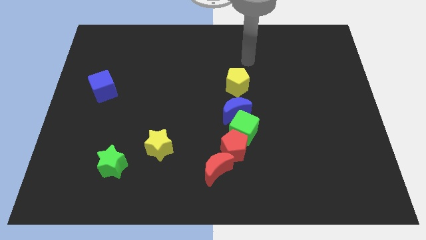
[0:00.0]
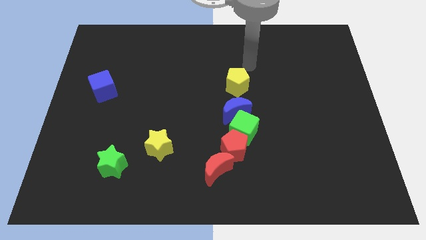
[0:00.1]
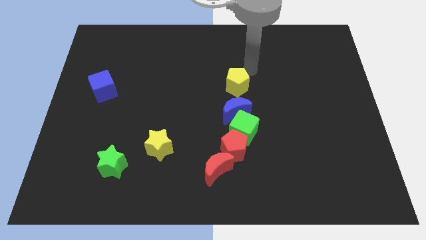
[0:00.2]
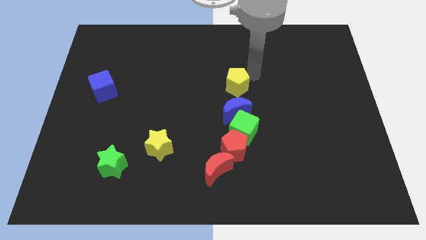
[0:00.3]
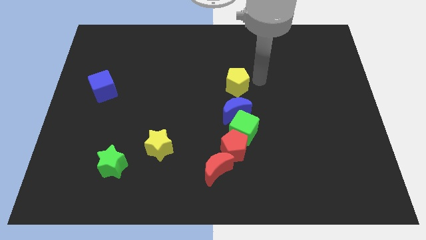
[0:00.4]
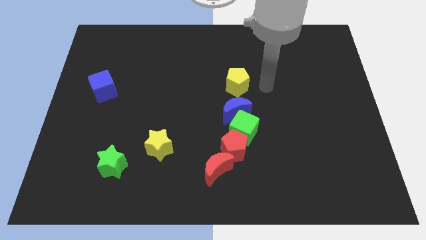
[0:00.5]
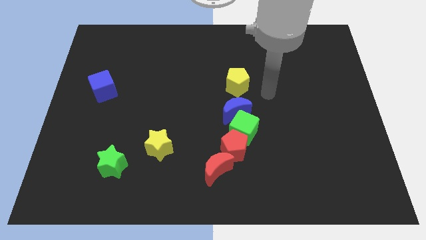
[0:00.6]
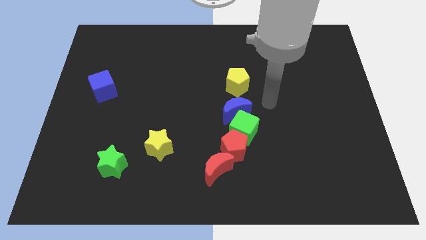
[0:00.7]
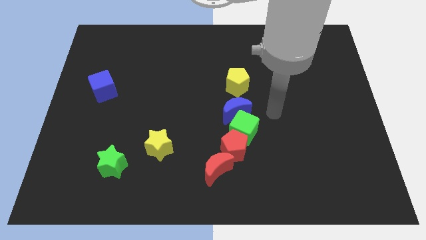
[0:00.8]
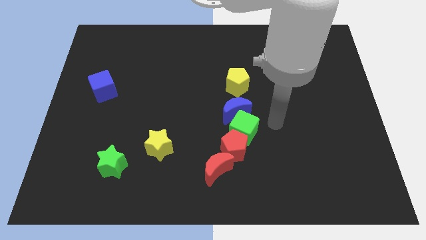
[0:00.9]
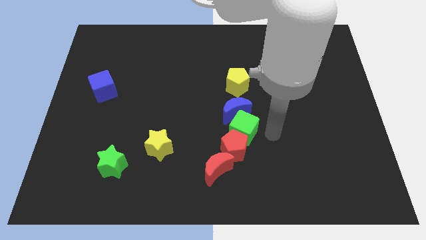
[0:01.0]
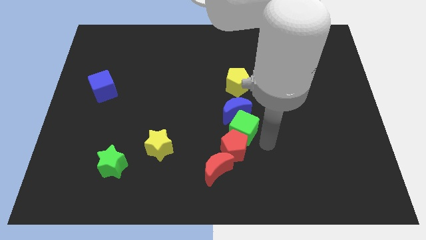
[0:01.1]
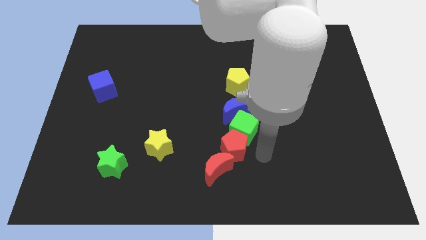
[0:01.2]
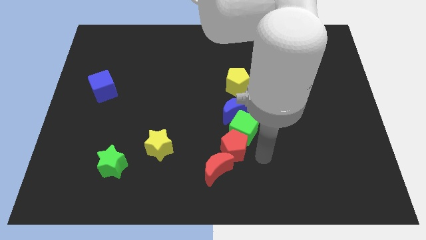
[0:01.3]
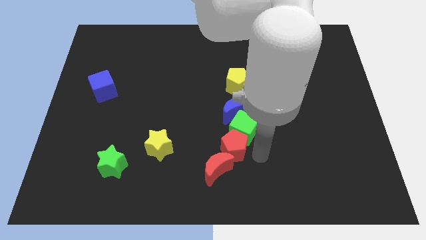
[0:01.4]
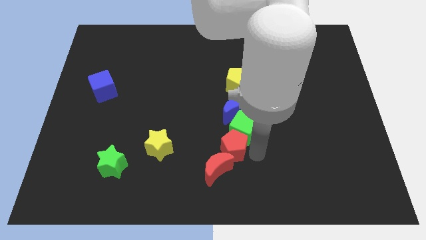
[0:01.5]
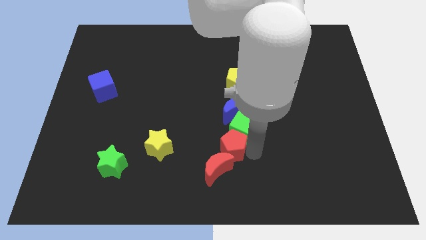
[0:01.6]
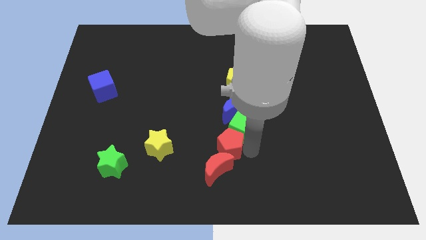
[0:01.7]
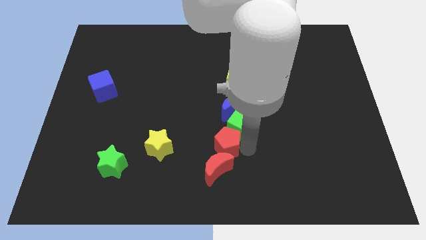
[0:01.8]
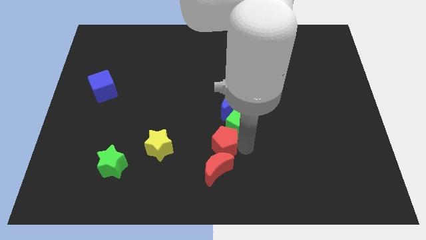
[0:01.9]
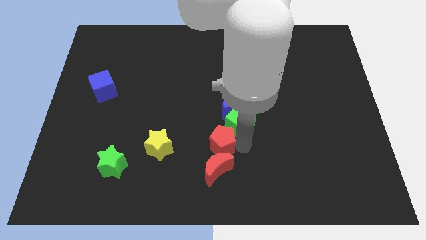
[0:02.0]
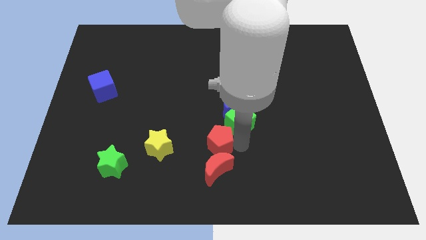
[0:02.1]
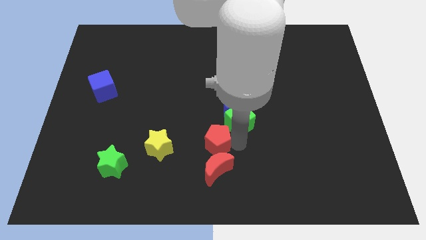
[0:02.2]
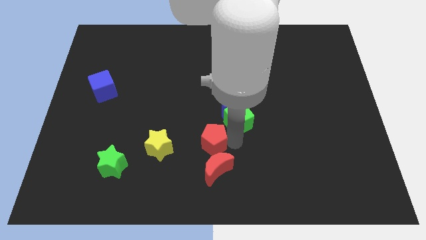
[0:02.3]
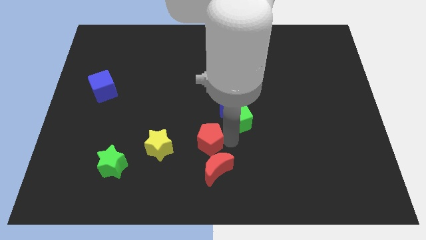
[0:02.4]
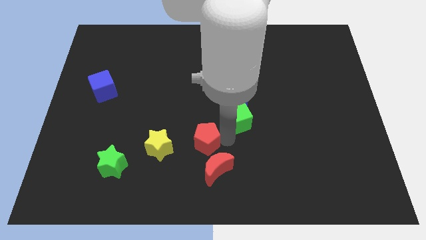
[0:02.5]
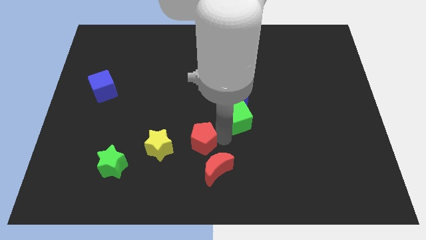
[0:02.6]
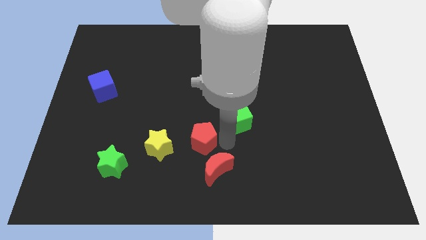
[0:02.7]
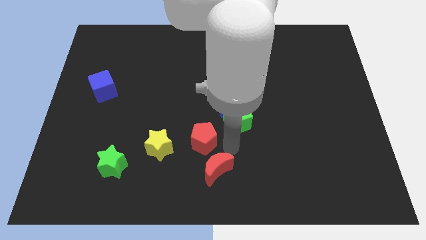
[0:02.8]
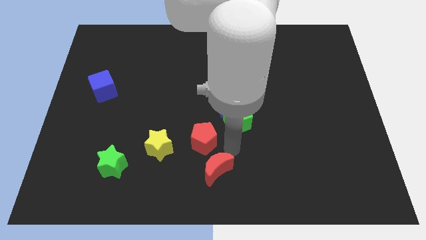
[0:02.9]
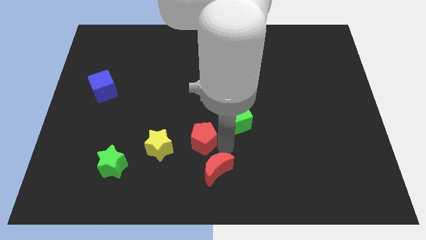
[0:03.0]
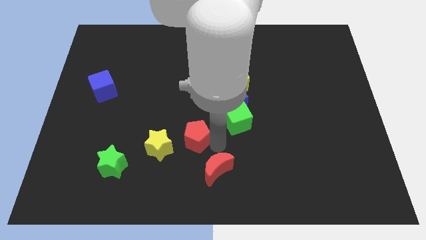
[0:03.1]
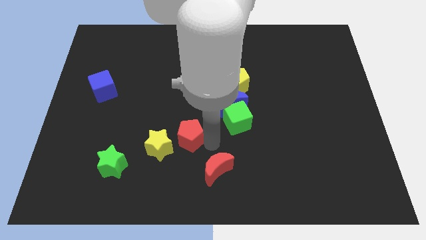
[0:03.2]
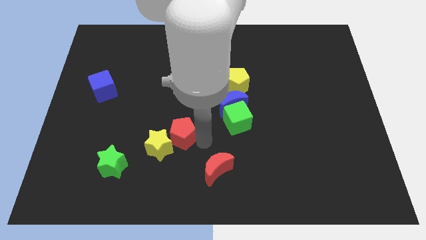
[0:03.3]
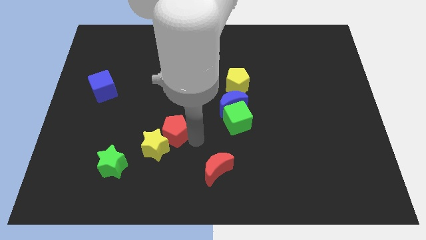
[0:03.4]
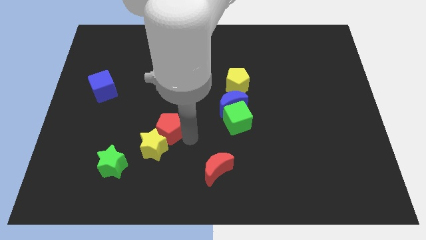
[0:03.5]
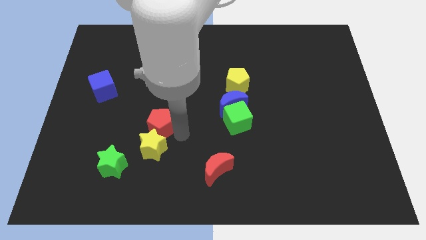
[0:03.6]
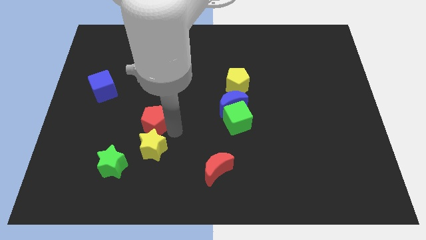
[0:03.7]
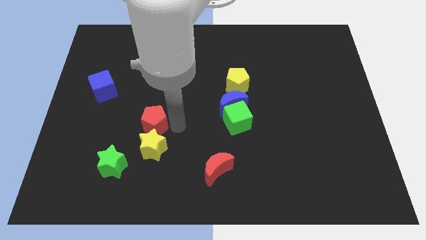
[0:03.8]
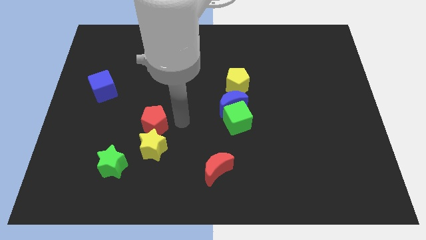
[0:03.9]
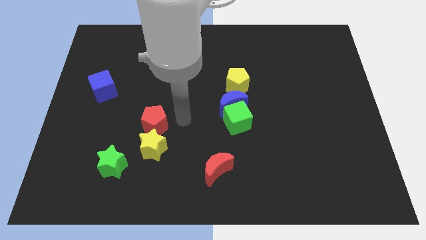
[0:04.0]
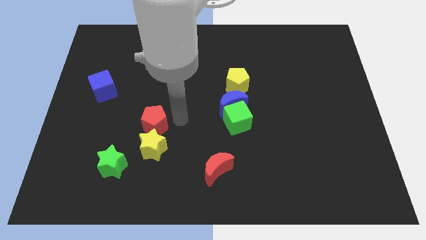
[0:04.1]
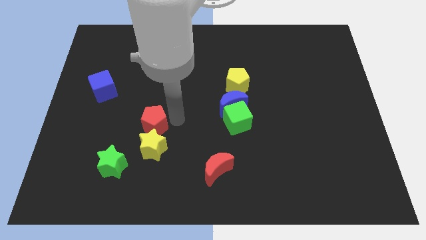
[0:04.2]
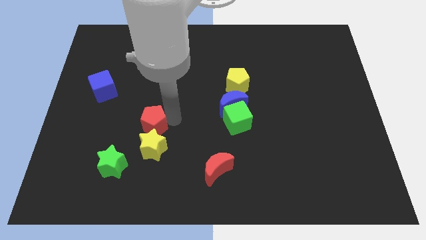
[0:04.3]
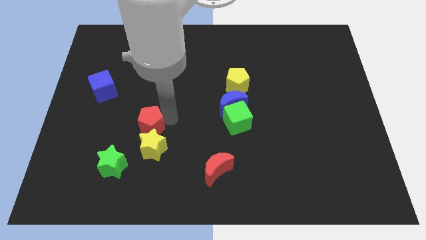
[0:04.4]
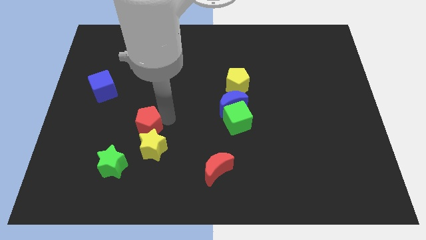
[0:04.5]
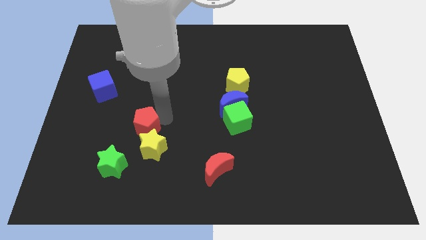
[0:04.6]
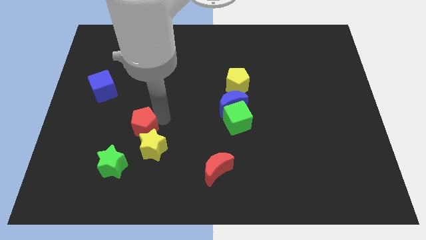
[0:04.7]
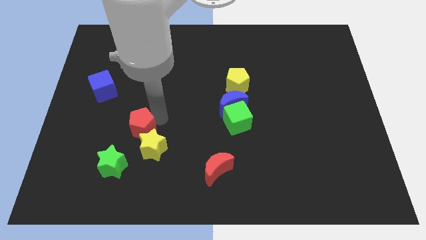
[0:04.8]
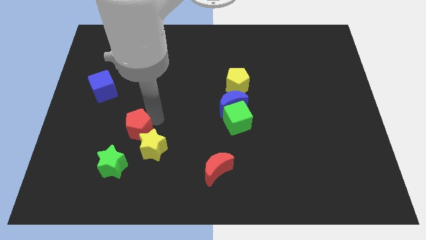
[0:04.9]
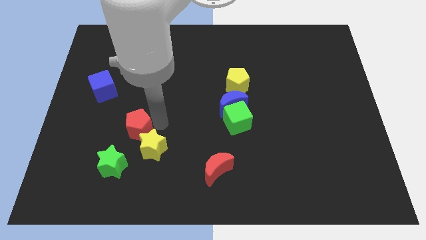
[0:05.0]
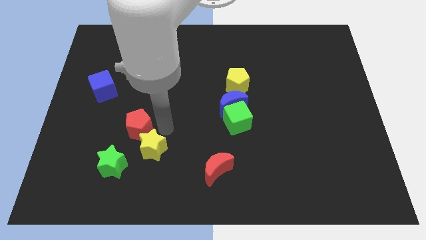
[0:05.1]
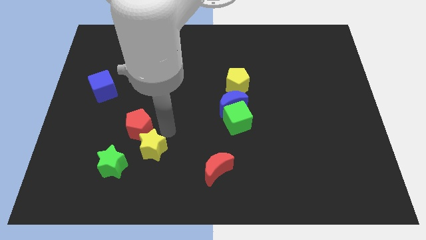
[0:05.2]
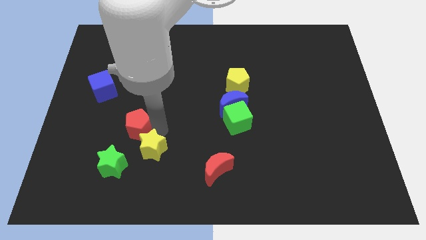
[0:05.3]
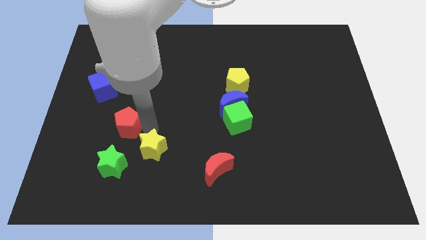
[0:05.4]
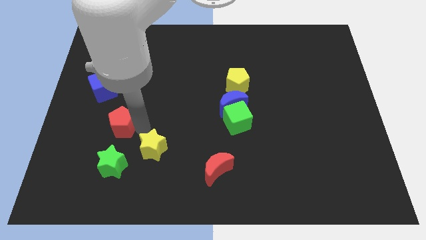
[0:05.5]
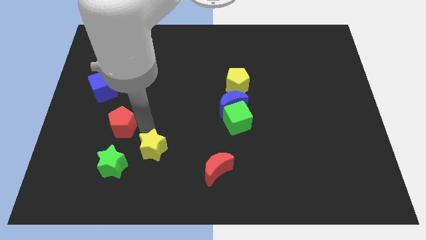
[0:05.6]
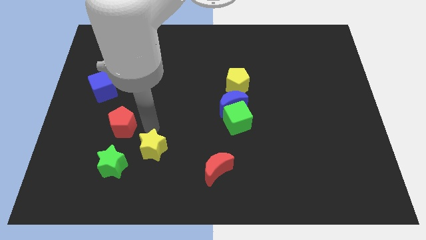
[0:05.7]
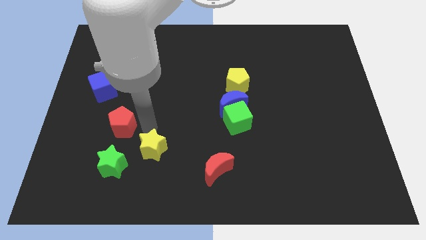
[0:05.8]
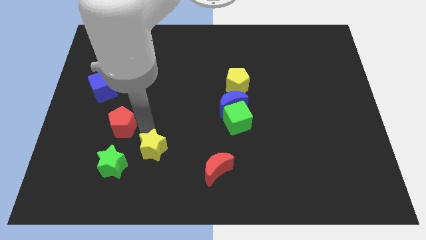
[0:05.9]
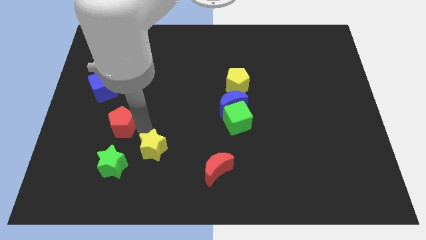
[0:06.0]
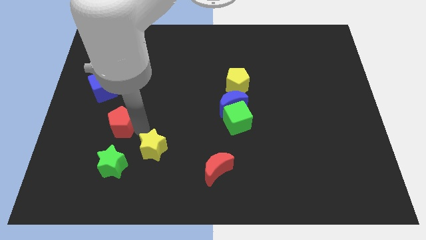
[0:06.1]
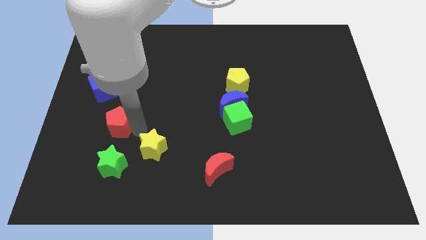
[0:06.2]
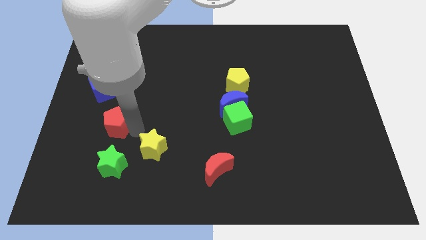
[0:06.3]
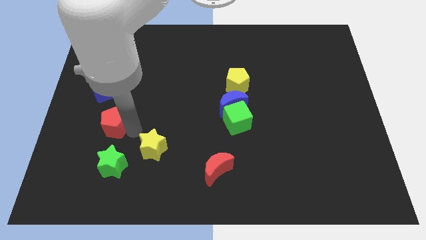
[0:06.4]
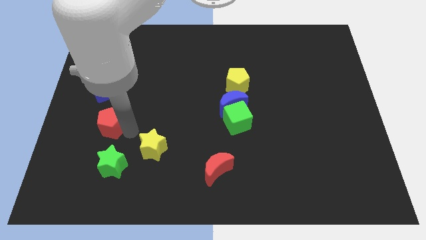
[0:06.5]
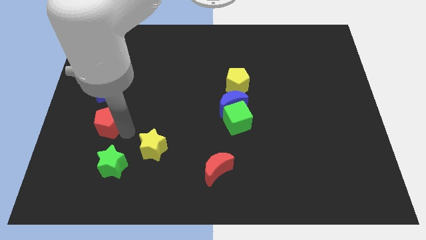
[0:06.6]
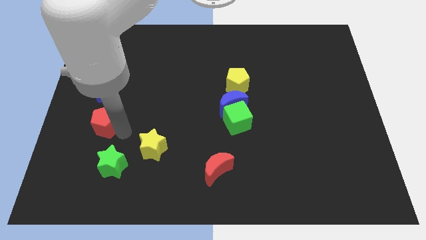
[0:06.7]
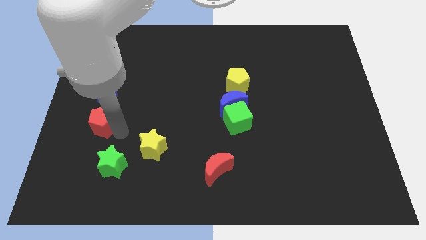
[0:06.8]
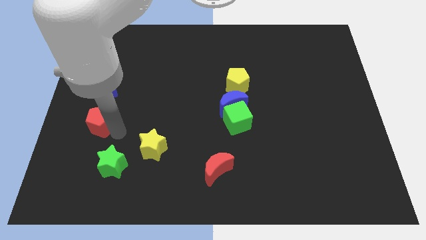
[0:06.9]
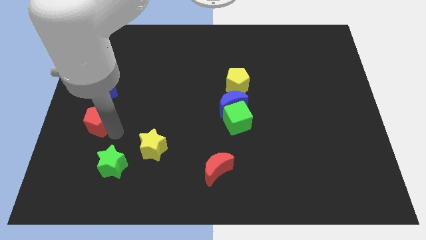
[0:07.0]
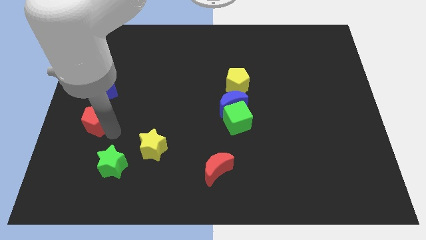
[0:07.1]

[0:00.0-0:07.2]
put the red pentagon to the left side
